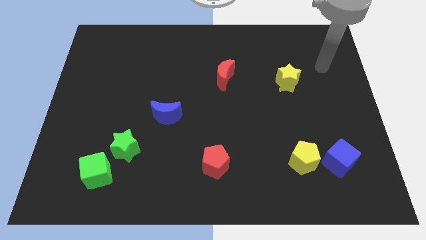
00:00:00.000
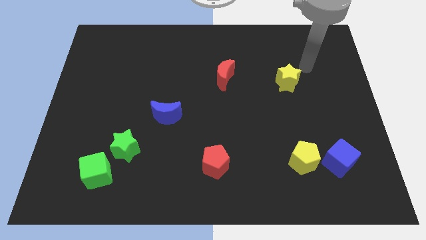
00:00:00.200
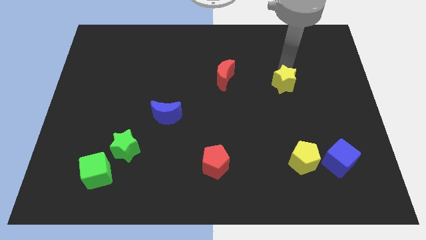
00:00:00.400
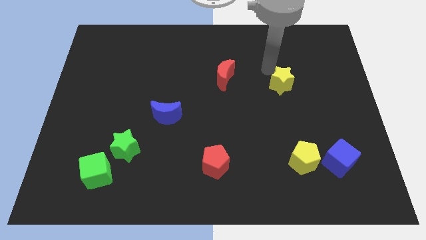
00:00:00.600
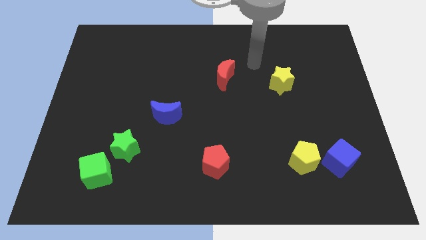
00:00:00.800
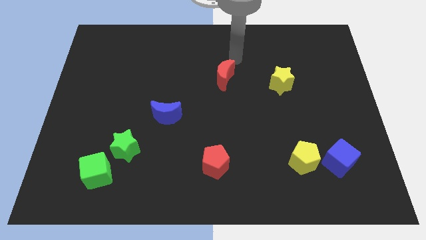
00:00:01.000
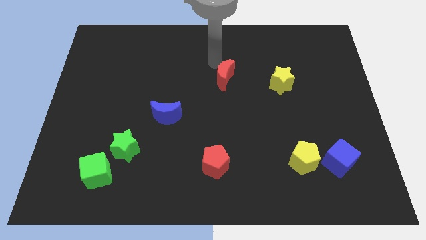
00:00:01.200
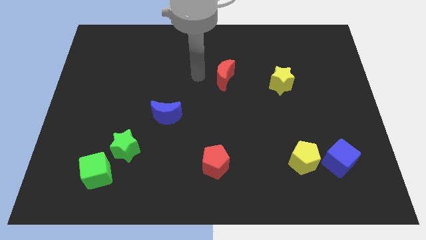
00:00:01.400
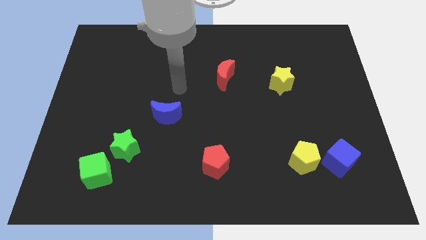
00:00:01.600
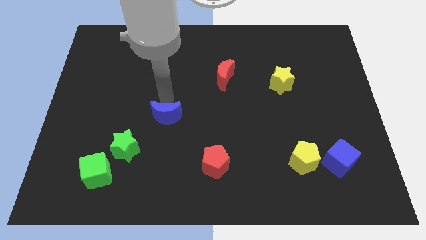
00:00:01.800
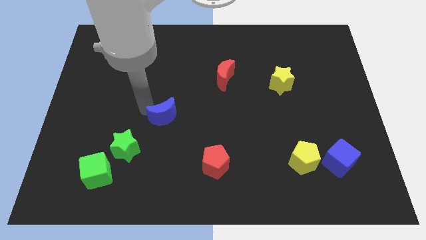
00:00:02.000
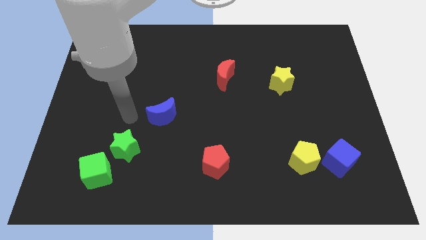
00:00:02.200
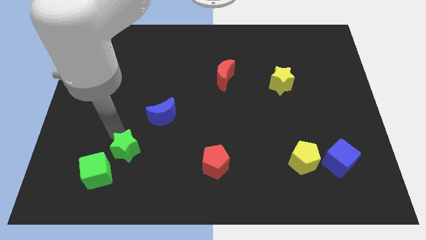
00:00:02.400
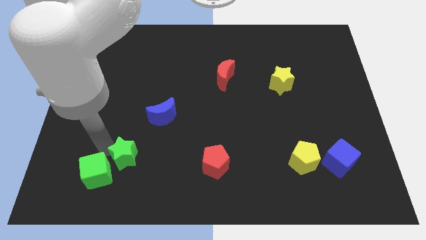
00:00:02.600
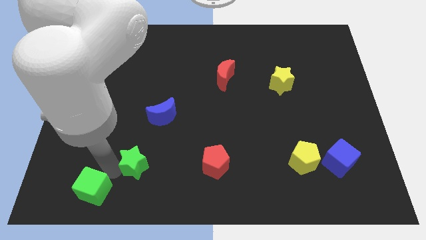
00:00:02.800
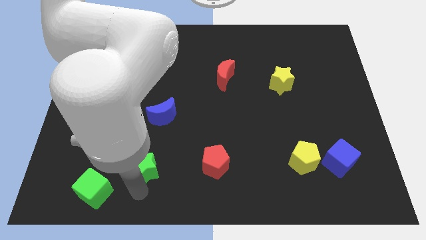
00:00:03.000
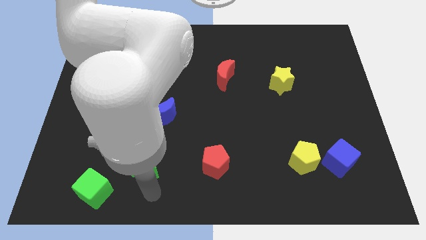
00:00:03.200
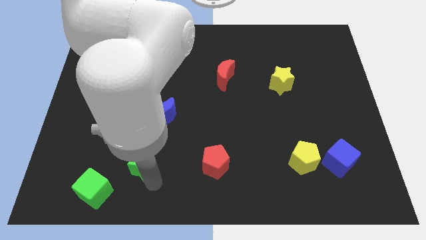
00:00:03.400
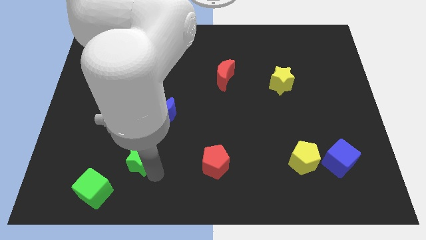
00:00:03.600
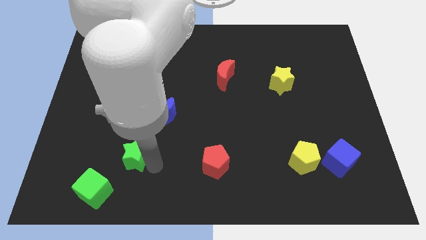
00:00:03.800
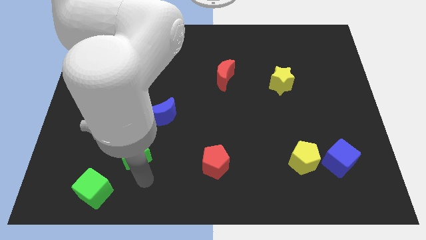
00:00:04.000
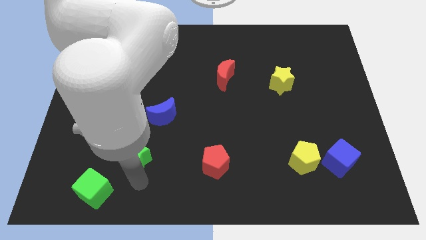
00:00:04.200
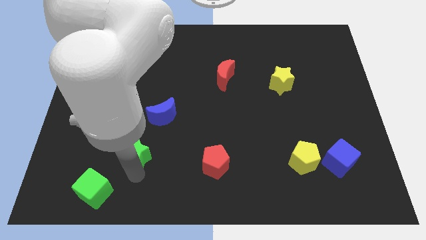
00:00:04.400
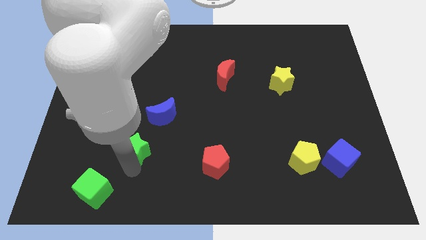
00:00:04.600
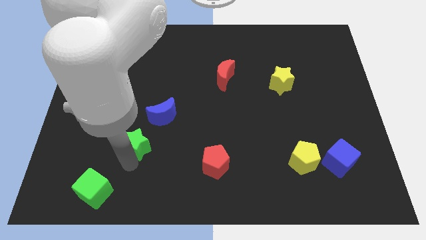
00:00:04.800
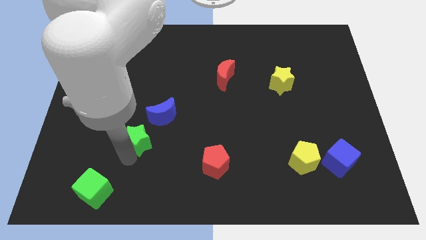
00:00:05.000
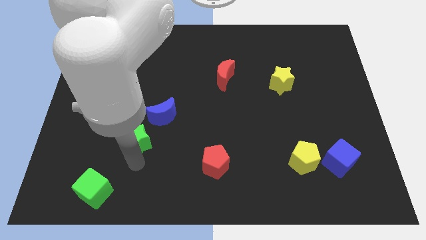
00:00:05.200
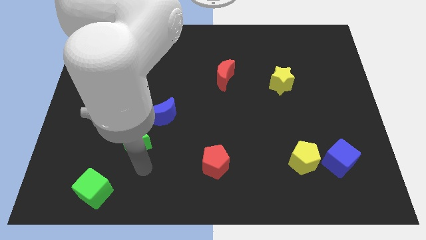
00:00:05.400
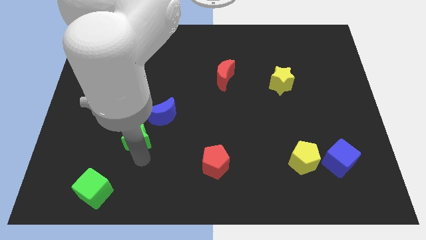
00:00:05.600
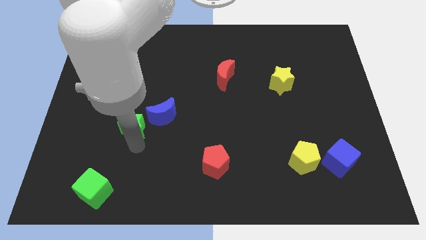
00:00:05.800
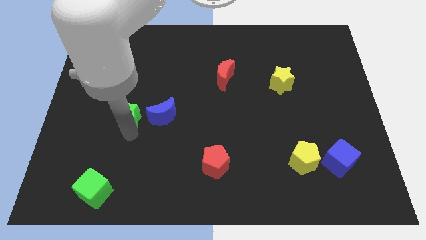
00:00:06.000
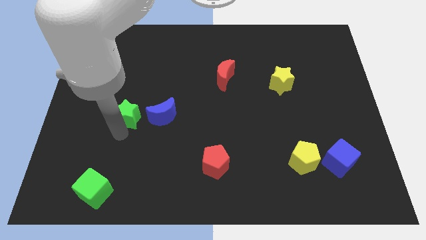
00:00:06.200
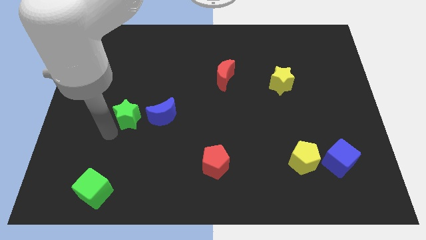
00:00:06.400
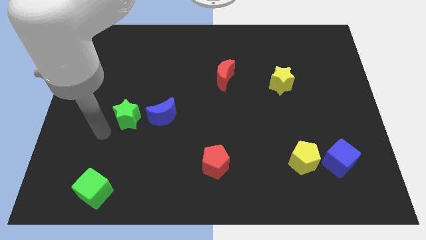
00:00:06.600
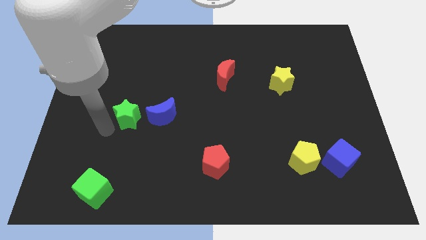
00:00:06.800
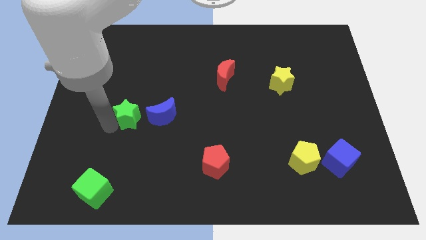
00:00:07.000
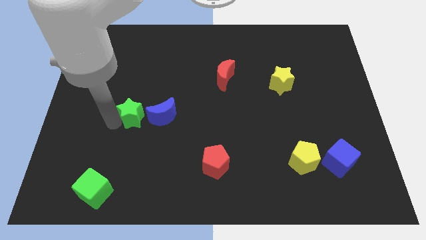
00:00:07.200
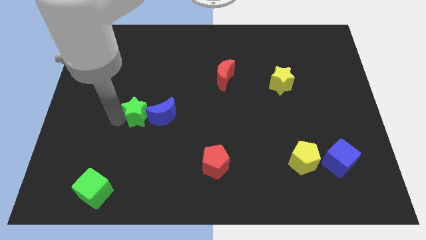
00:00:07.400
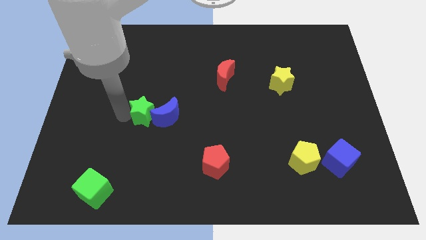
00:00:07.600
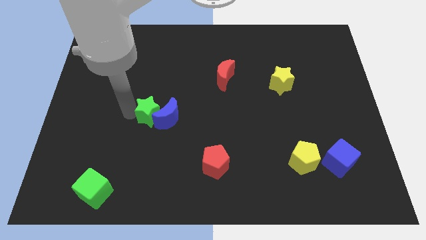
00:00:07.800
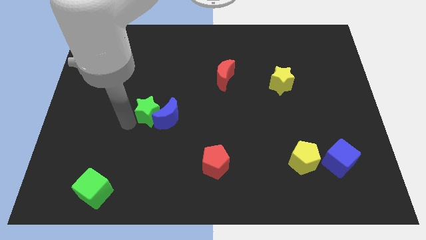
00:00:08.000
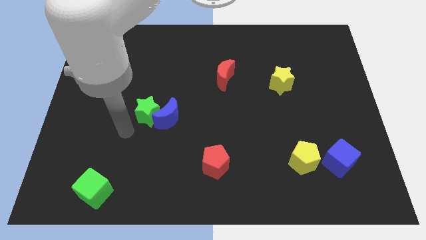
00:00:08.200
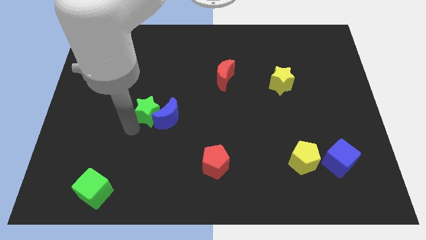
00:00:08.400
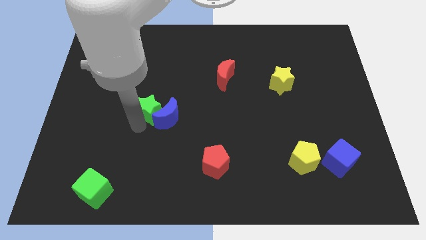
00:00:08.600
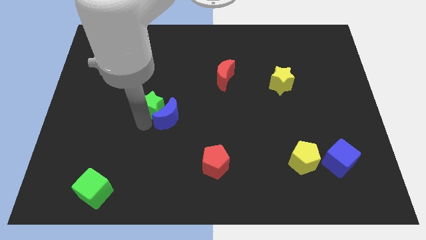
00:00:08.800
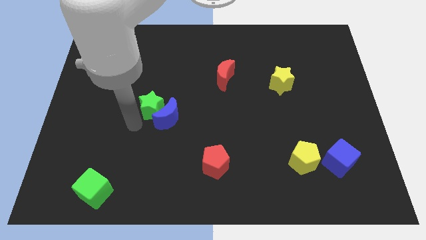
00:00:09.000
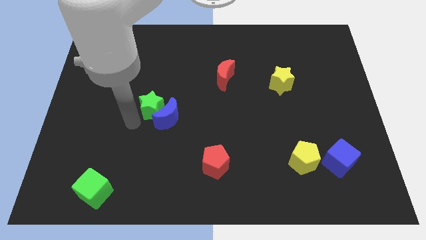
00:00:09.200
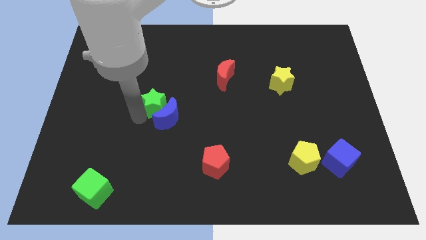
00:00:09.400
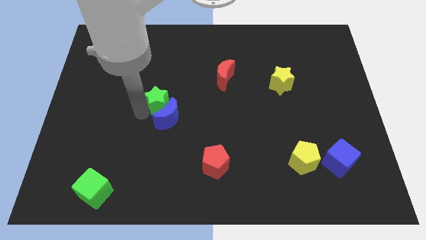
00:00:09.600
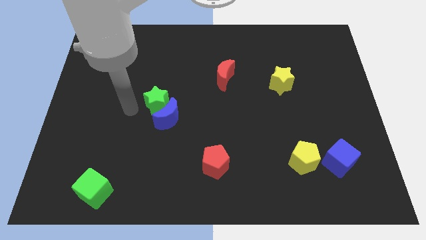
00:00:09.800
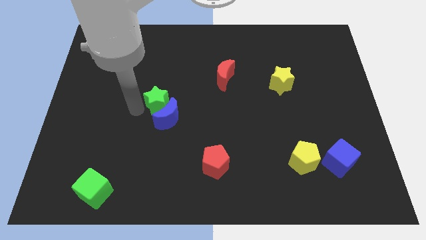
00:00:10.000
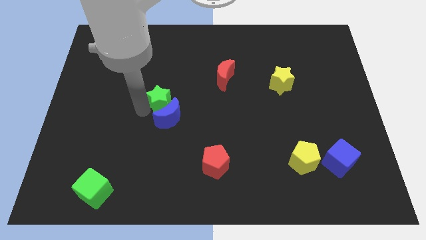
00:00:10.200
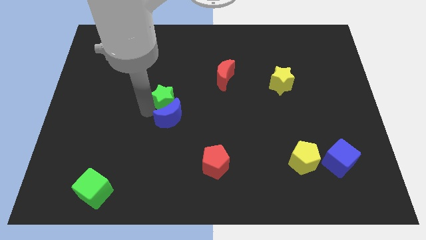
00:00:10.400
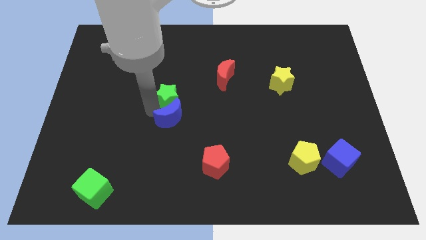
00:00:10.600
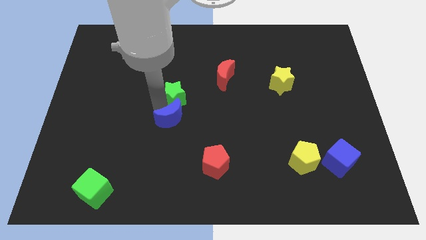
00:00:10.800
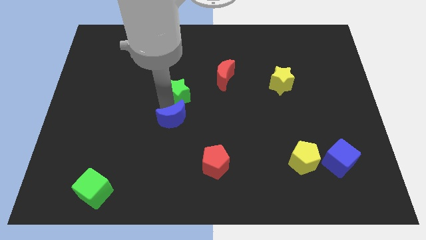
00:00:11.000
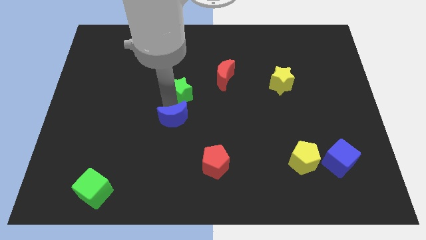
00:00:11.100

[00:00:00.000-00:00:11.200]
slide the green star to the bottom left of the red moon

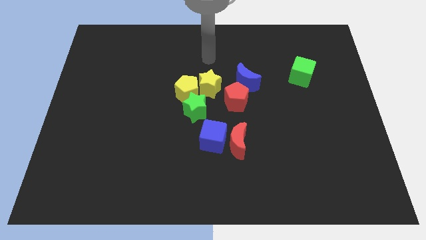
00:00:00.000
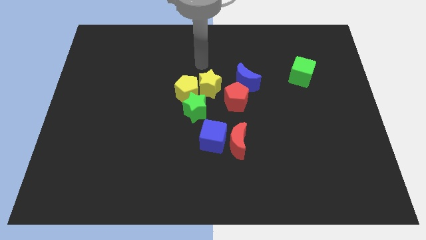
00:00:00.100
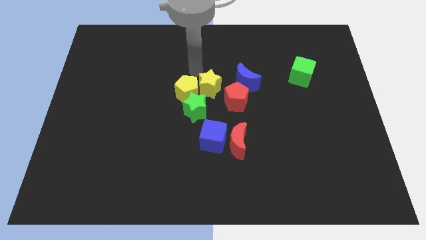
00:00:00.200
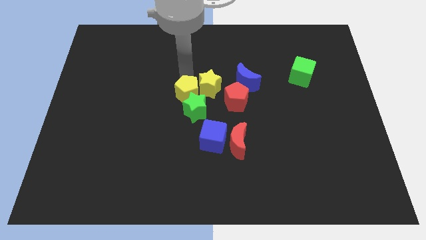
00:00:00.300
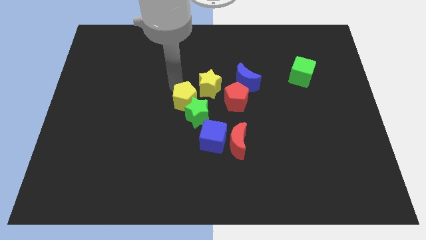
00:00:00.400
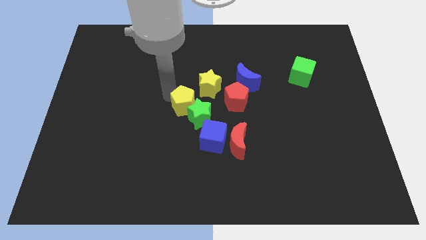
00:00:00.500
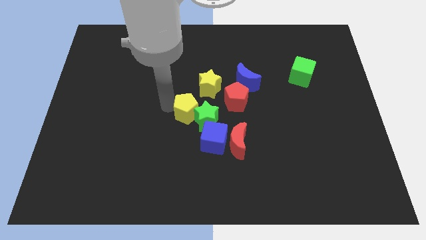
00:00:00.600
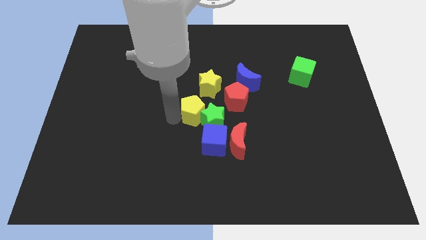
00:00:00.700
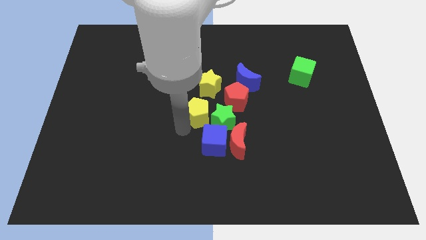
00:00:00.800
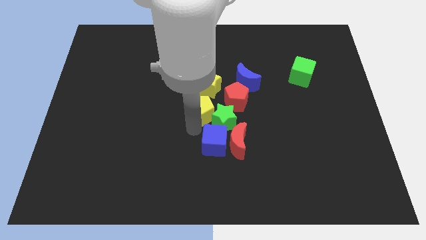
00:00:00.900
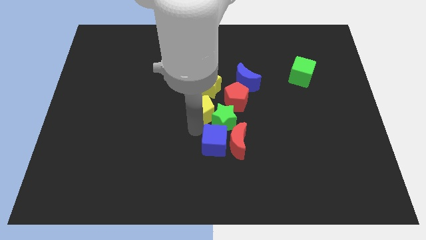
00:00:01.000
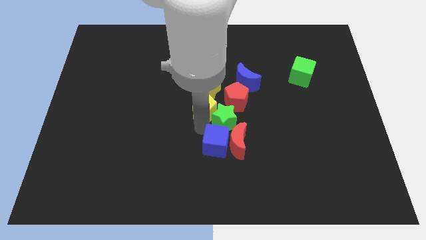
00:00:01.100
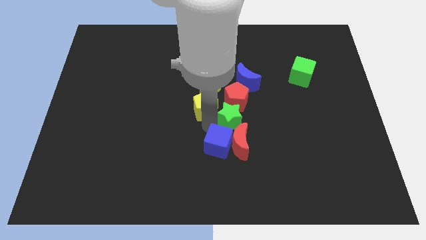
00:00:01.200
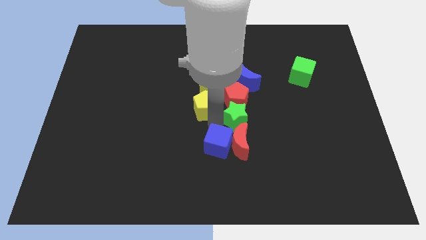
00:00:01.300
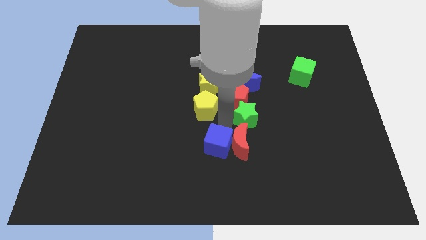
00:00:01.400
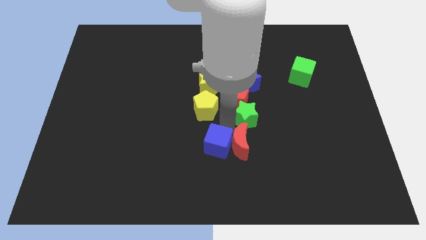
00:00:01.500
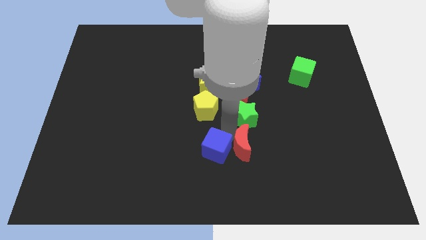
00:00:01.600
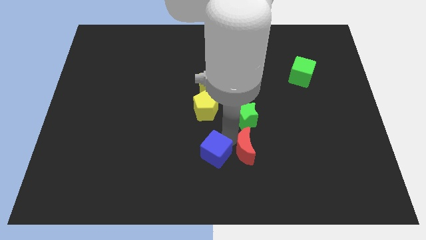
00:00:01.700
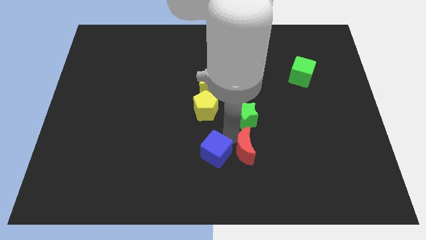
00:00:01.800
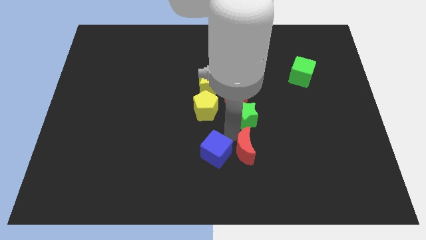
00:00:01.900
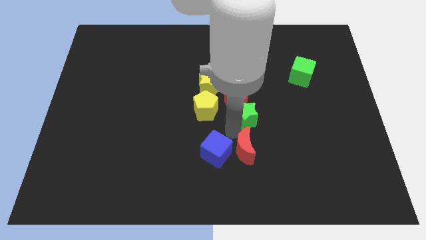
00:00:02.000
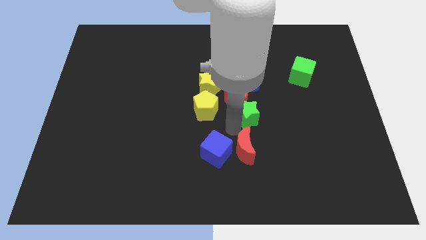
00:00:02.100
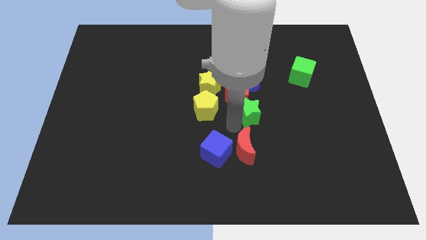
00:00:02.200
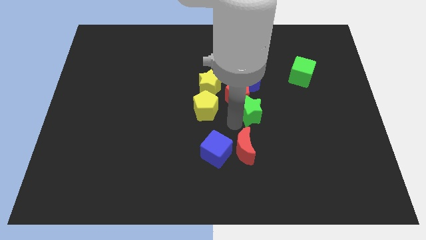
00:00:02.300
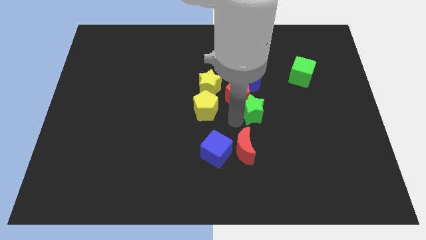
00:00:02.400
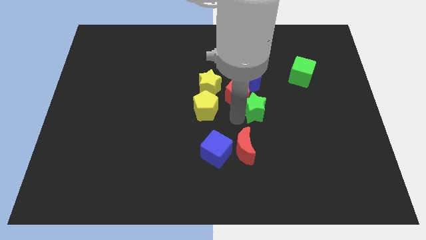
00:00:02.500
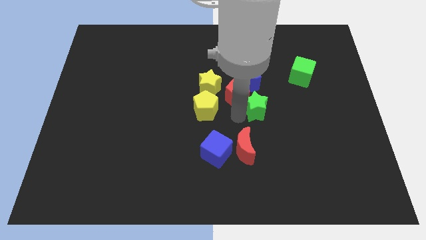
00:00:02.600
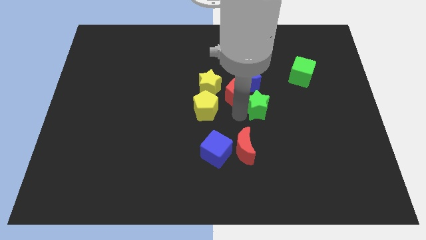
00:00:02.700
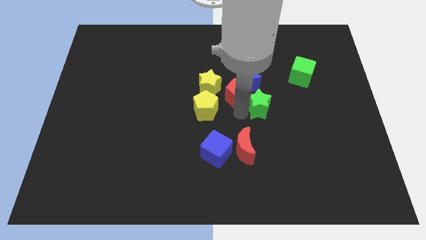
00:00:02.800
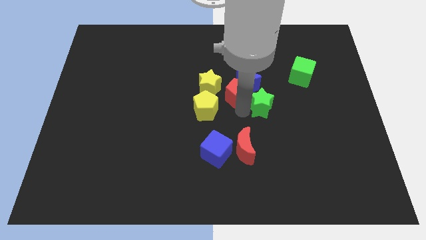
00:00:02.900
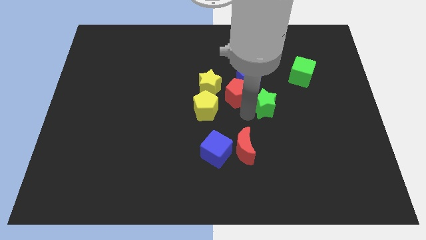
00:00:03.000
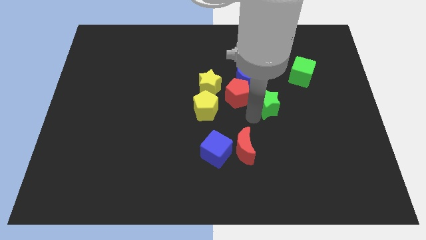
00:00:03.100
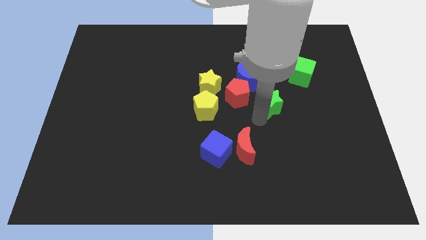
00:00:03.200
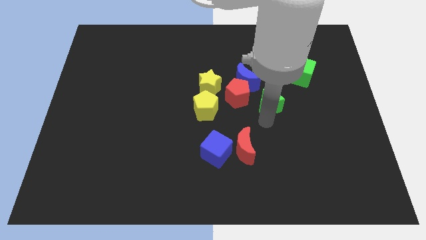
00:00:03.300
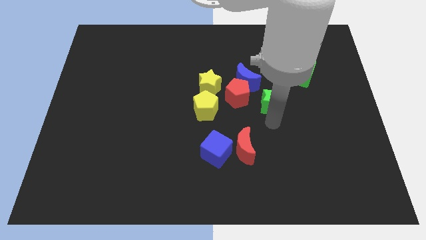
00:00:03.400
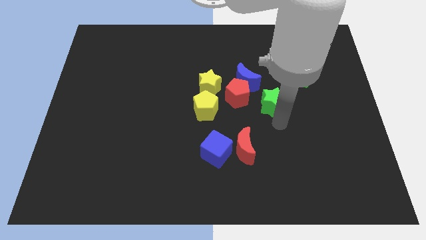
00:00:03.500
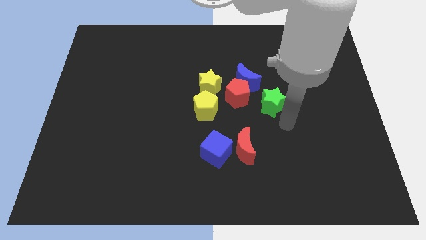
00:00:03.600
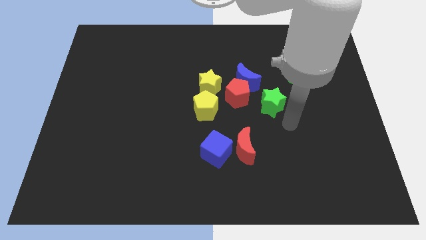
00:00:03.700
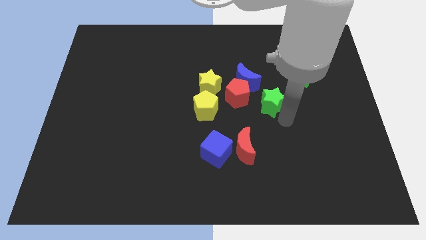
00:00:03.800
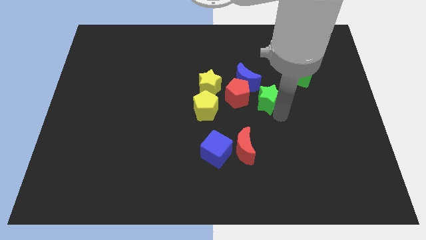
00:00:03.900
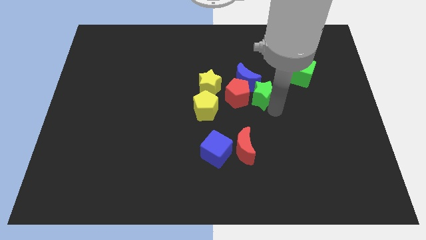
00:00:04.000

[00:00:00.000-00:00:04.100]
move the green star right of the yellow star
